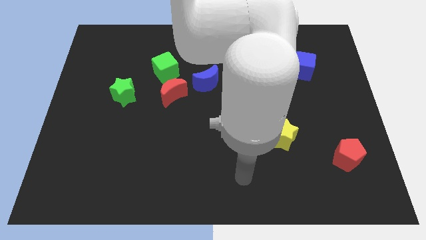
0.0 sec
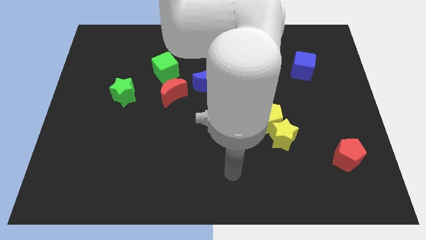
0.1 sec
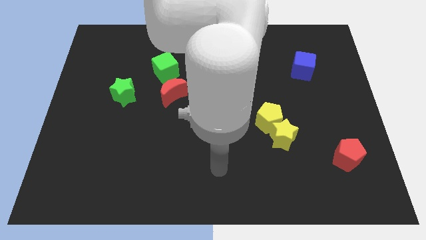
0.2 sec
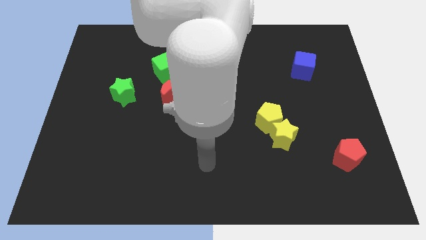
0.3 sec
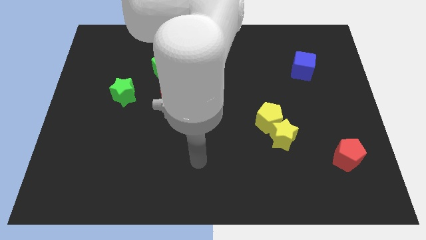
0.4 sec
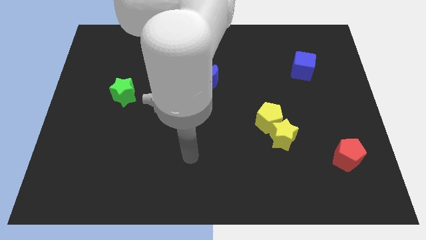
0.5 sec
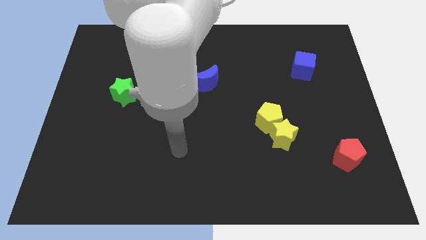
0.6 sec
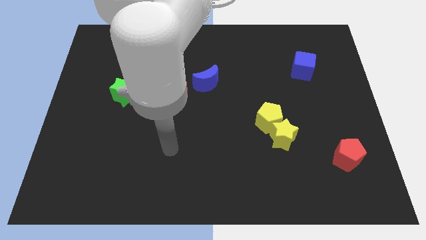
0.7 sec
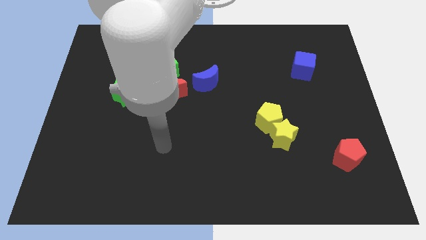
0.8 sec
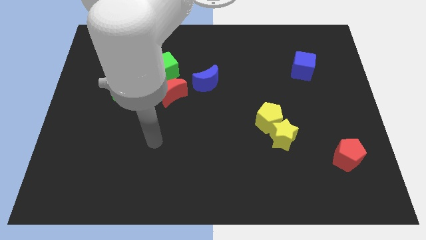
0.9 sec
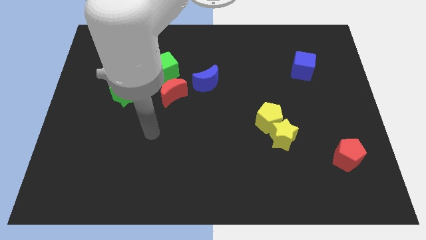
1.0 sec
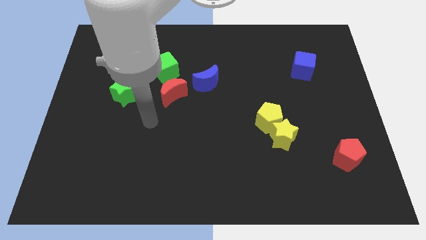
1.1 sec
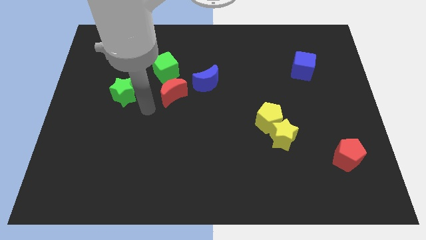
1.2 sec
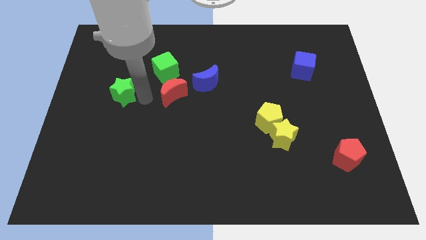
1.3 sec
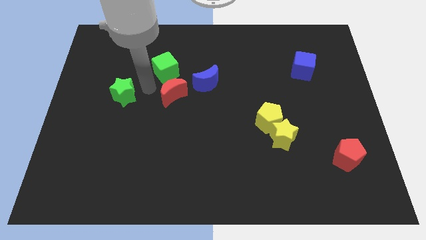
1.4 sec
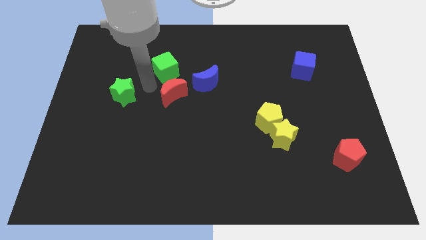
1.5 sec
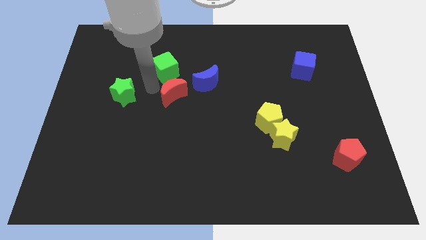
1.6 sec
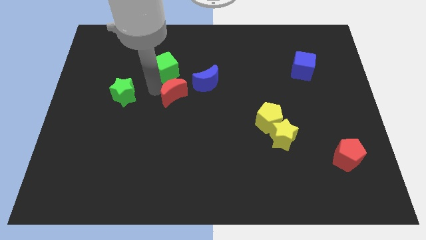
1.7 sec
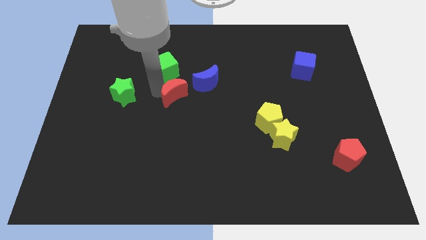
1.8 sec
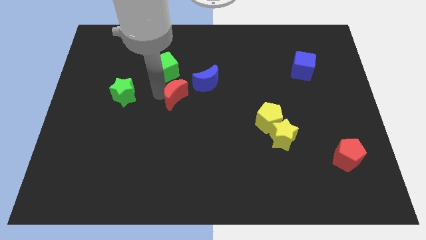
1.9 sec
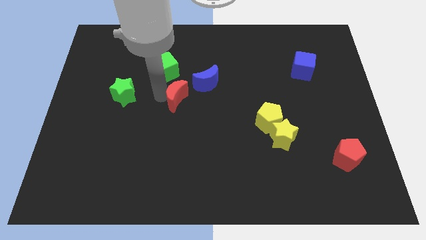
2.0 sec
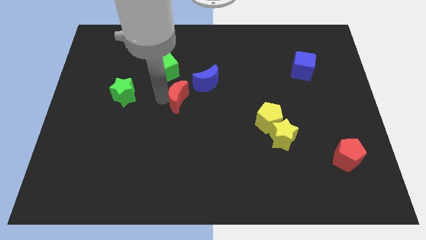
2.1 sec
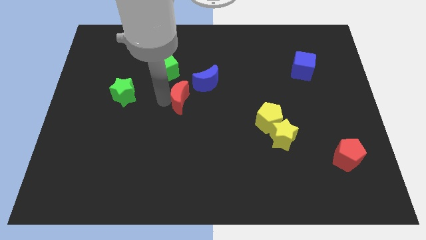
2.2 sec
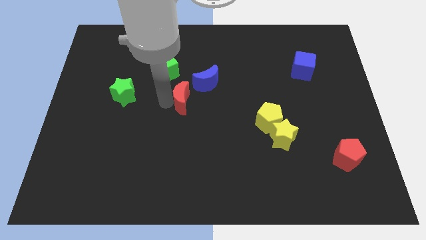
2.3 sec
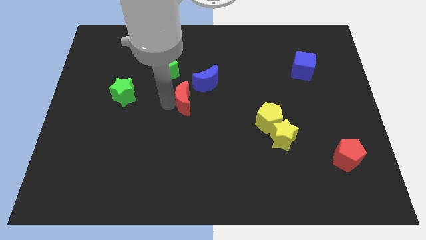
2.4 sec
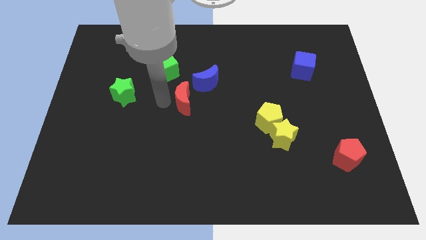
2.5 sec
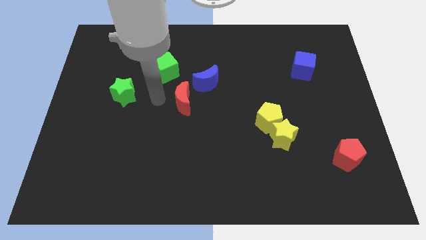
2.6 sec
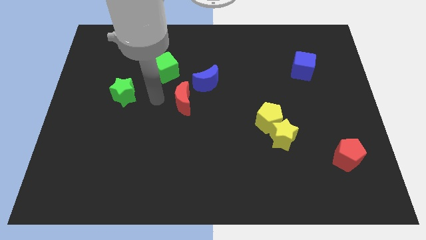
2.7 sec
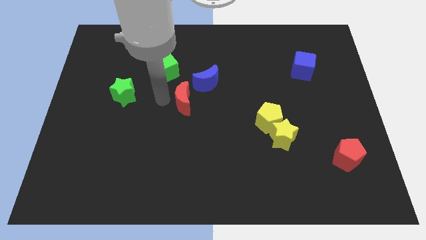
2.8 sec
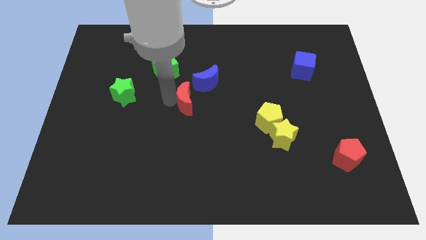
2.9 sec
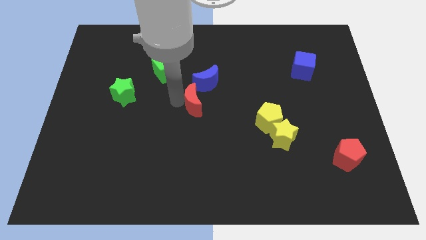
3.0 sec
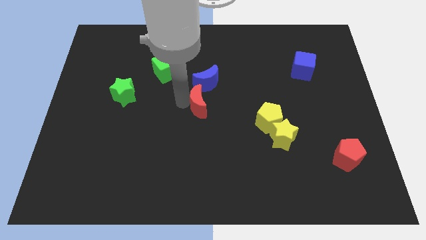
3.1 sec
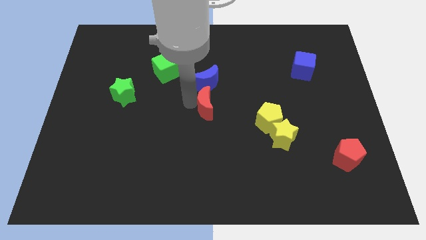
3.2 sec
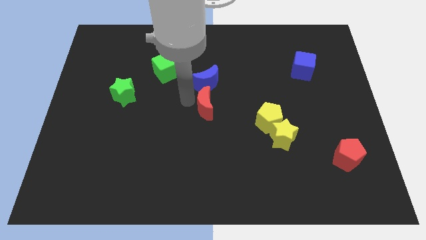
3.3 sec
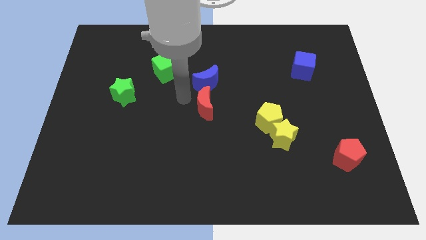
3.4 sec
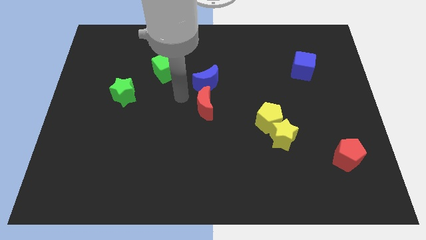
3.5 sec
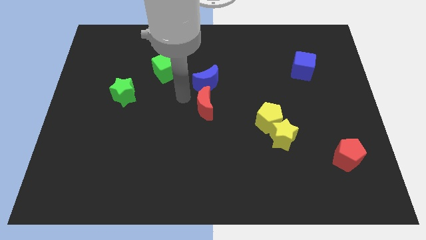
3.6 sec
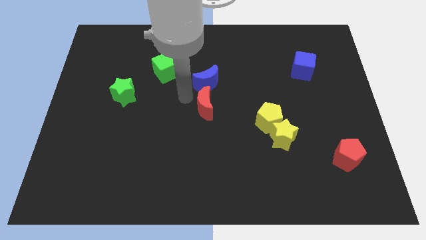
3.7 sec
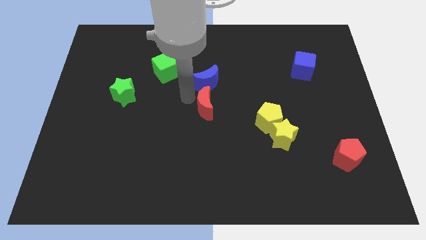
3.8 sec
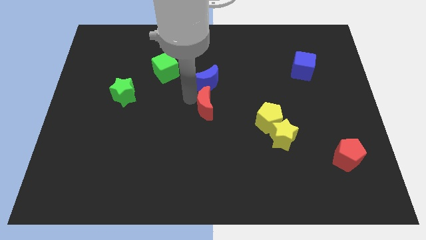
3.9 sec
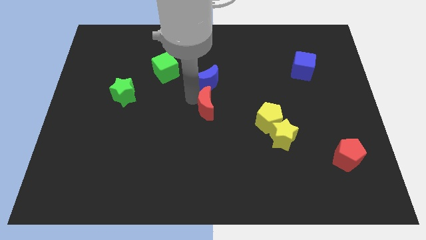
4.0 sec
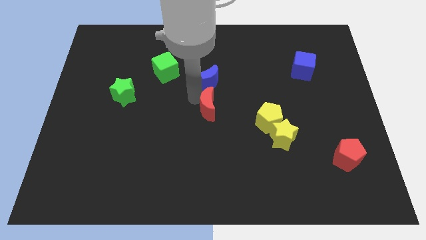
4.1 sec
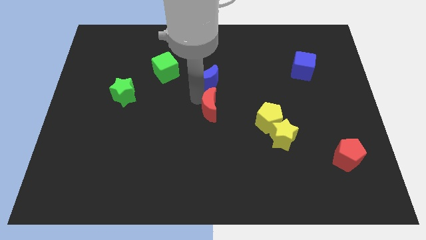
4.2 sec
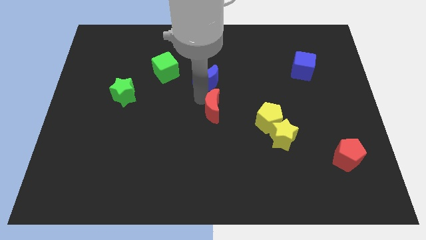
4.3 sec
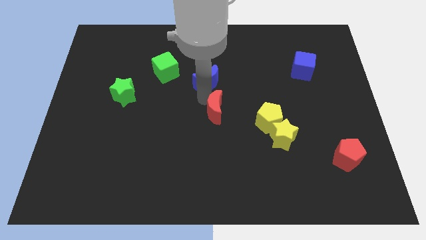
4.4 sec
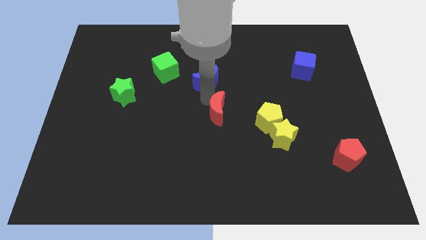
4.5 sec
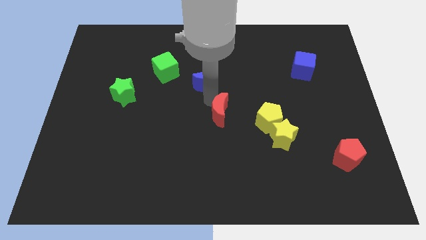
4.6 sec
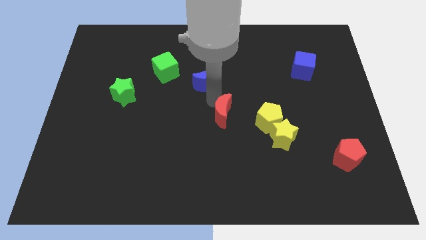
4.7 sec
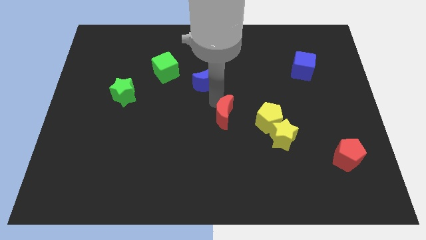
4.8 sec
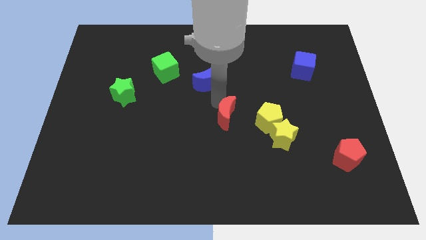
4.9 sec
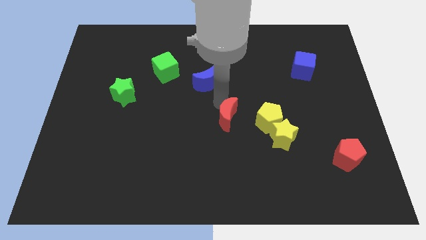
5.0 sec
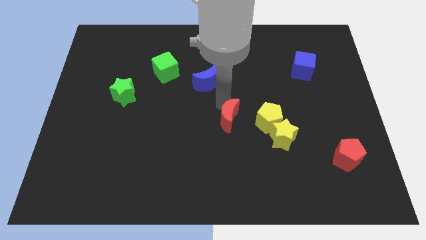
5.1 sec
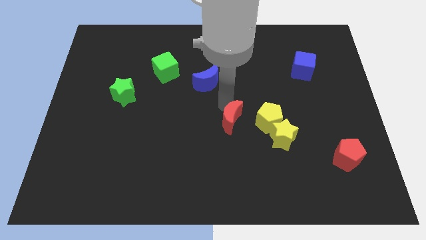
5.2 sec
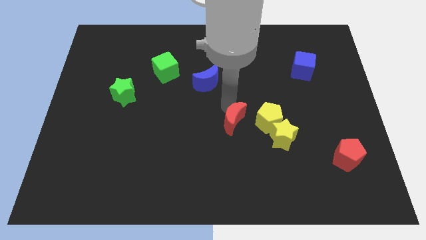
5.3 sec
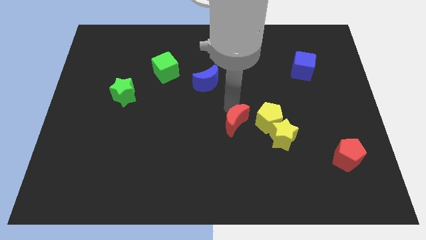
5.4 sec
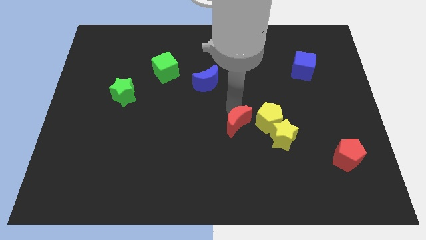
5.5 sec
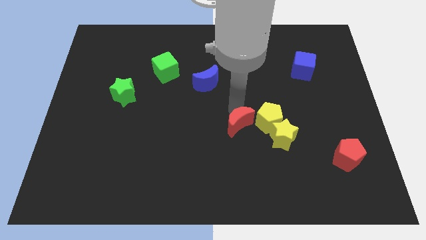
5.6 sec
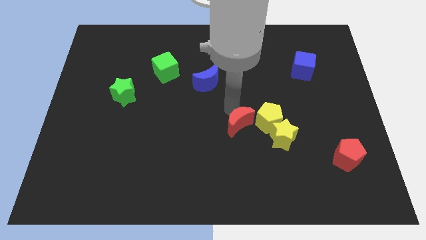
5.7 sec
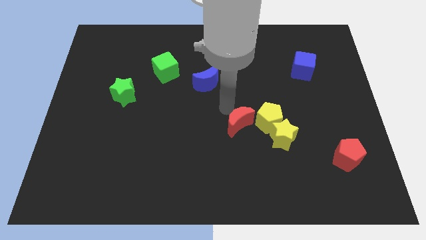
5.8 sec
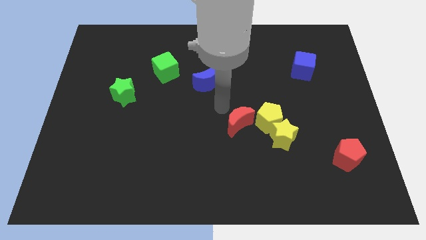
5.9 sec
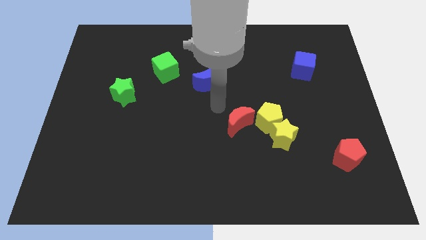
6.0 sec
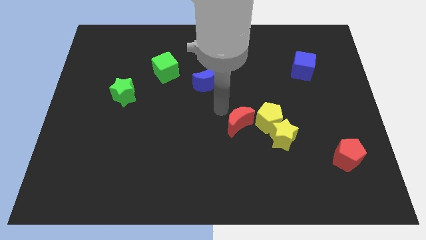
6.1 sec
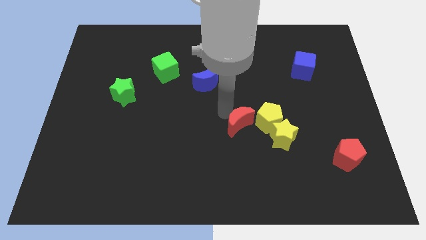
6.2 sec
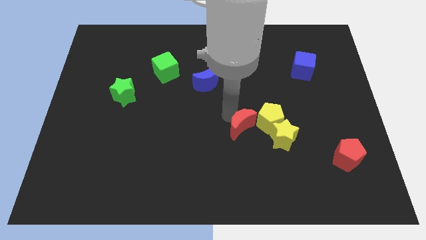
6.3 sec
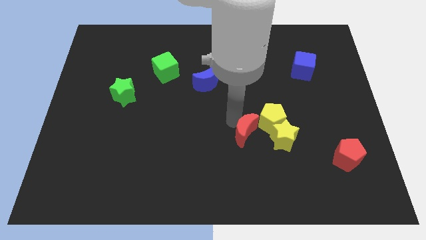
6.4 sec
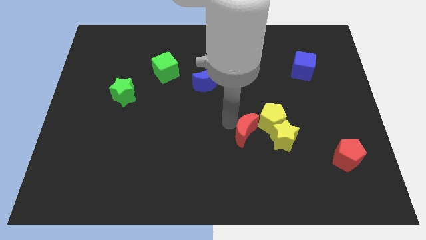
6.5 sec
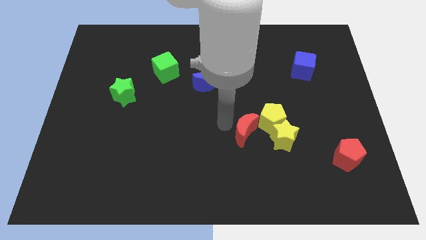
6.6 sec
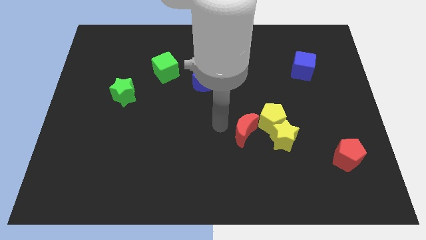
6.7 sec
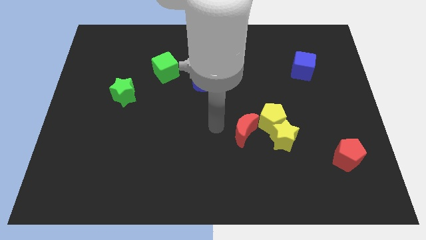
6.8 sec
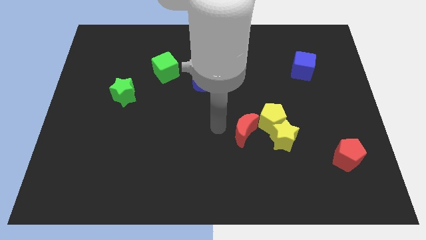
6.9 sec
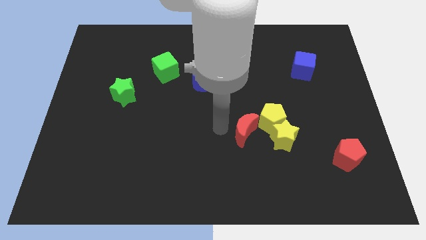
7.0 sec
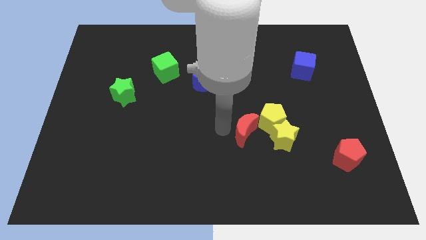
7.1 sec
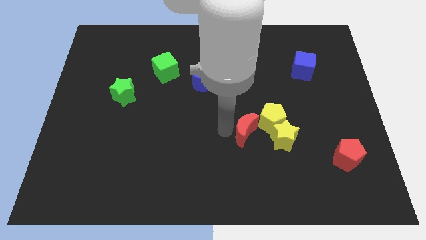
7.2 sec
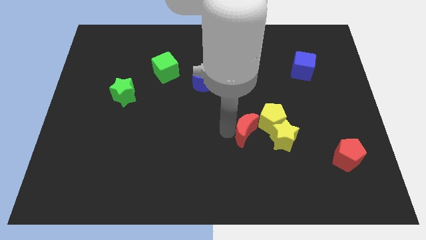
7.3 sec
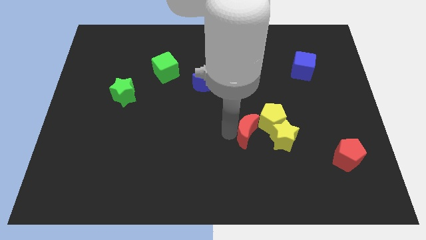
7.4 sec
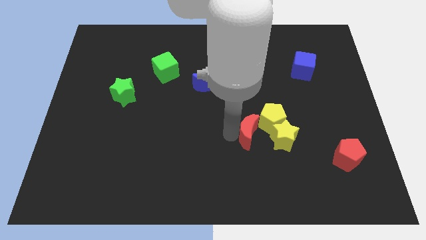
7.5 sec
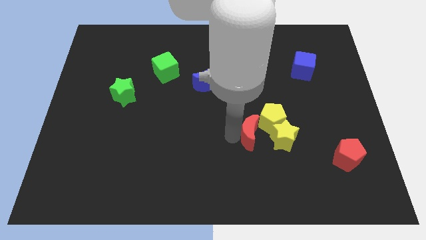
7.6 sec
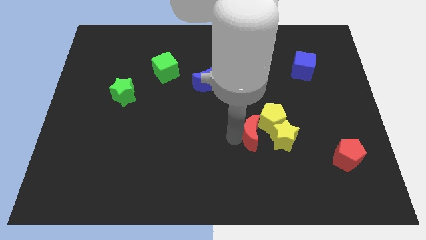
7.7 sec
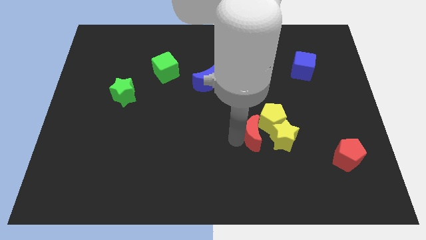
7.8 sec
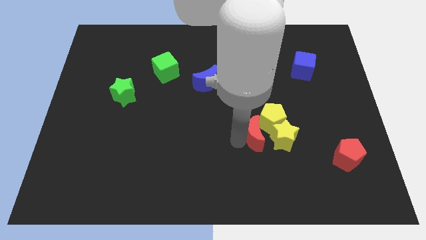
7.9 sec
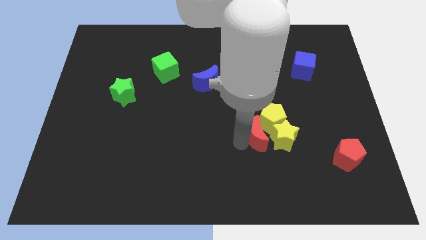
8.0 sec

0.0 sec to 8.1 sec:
slide the red moon next to the yellow star
